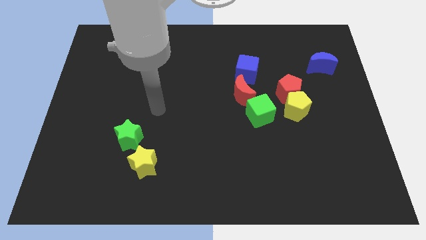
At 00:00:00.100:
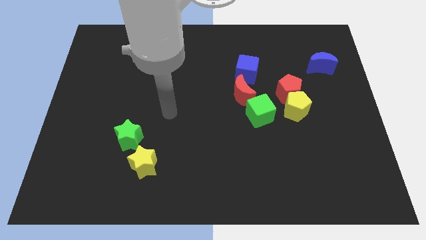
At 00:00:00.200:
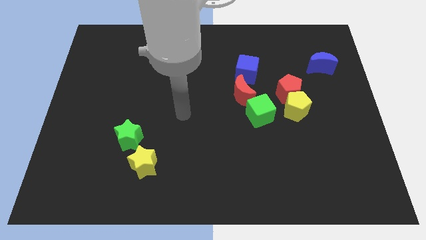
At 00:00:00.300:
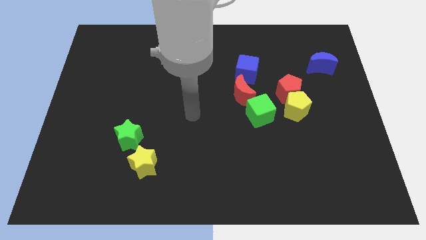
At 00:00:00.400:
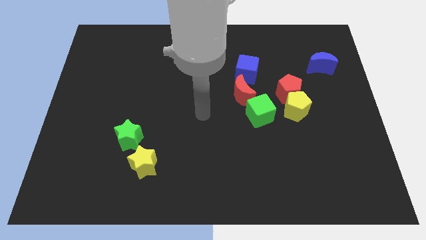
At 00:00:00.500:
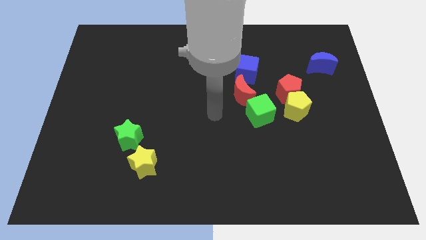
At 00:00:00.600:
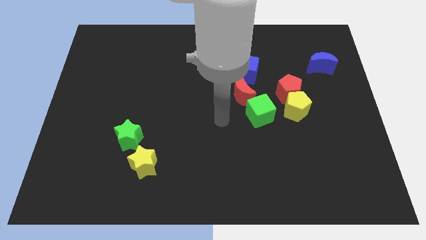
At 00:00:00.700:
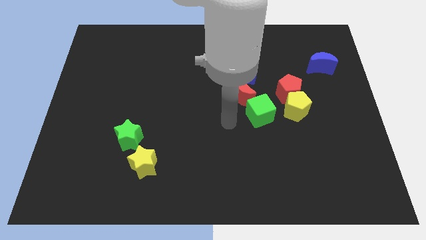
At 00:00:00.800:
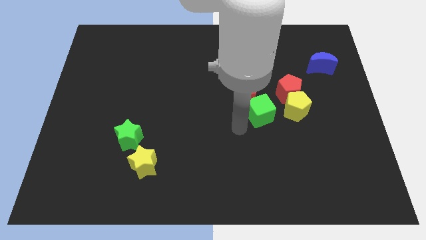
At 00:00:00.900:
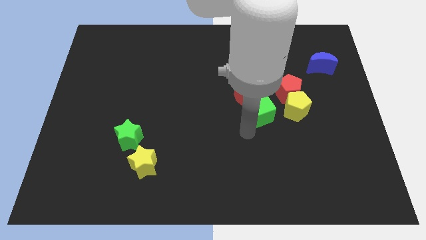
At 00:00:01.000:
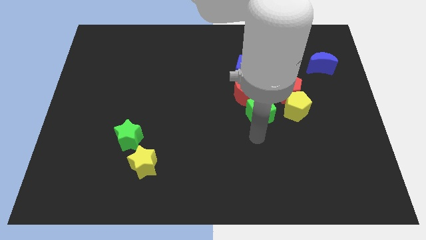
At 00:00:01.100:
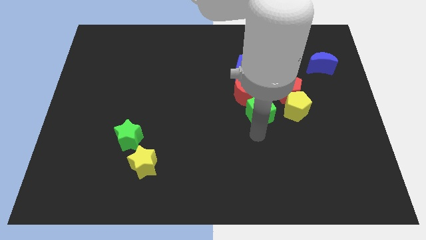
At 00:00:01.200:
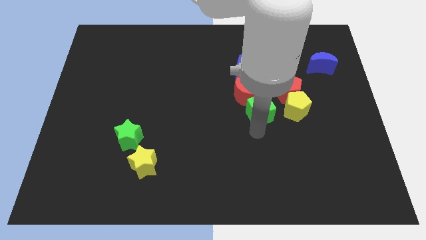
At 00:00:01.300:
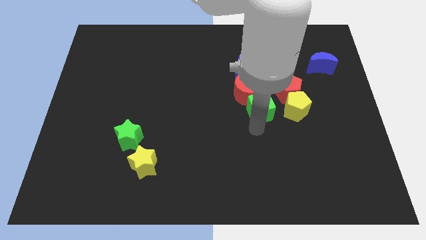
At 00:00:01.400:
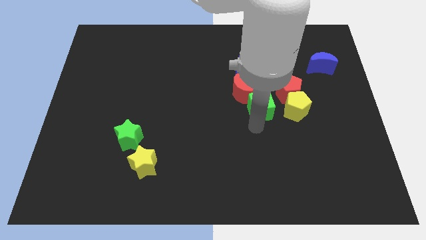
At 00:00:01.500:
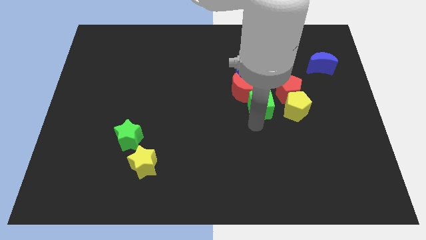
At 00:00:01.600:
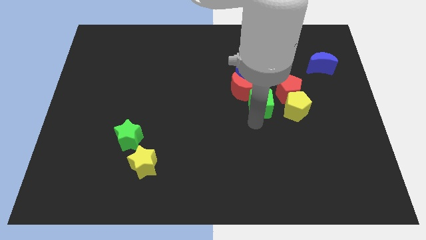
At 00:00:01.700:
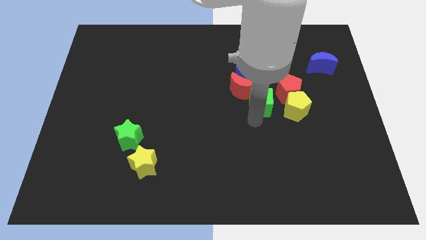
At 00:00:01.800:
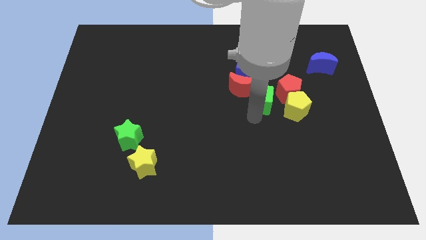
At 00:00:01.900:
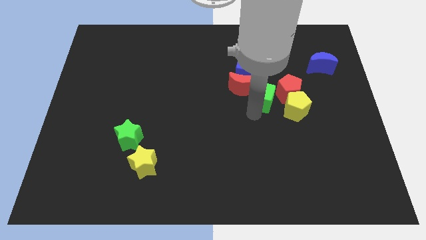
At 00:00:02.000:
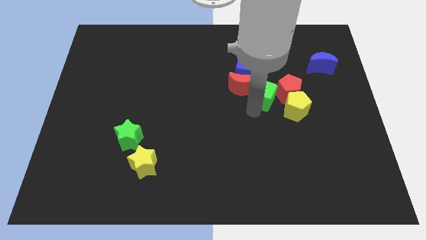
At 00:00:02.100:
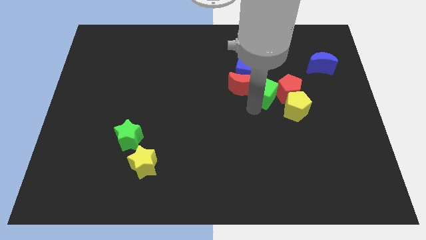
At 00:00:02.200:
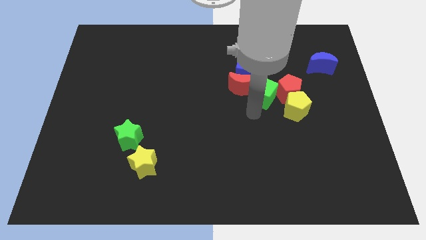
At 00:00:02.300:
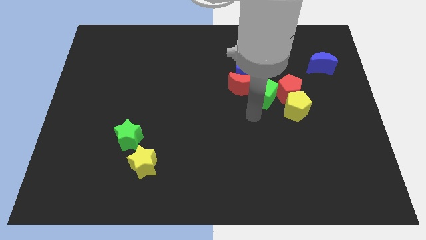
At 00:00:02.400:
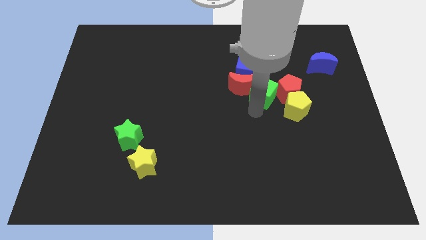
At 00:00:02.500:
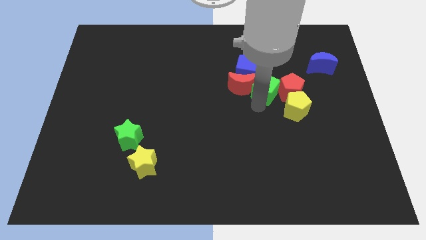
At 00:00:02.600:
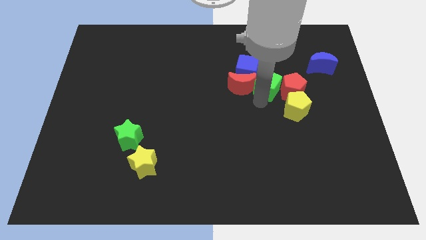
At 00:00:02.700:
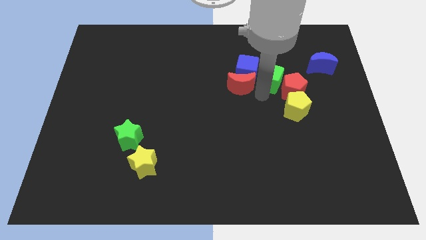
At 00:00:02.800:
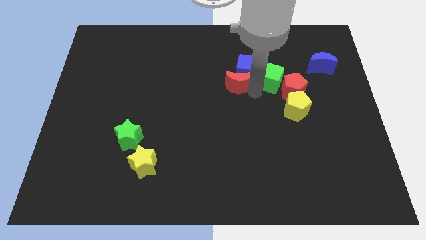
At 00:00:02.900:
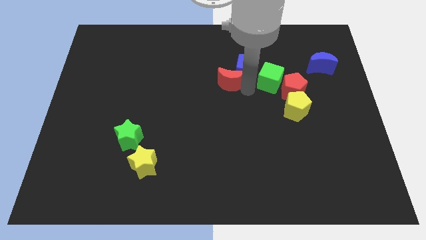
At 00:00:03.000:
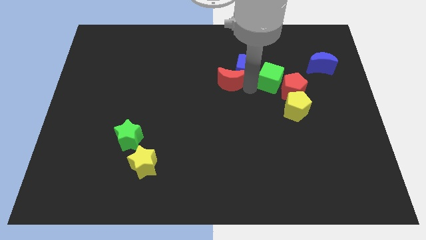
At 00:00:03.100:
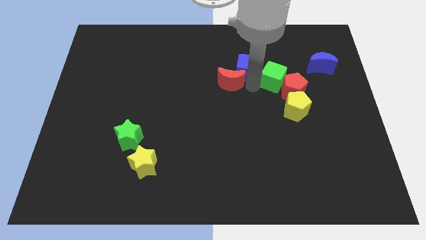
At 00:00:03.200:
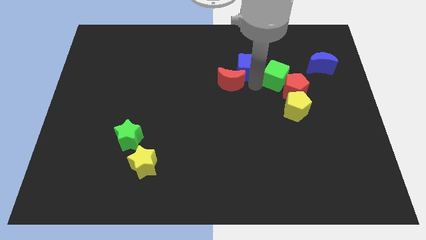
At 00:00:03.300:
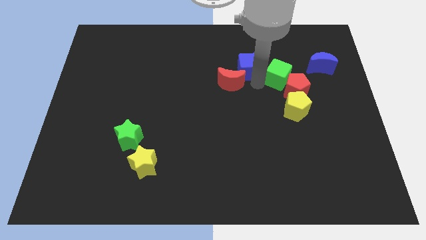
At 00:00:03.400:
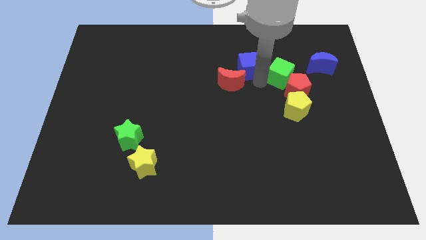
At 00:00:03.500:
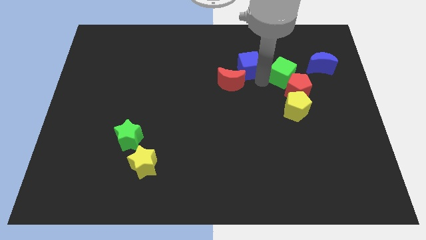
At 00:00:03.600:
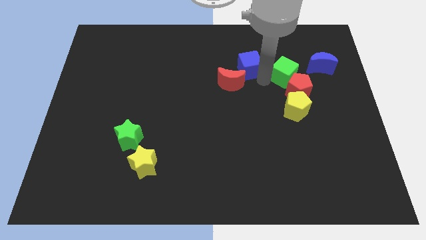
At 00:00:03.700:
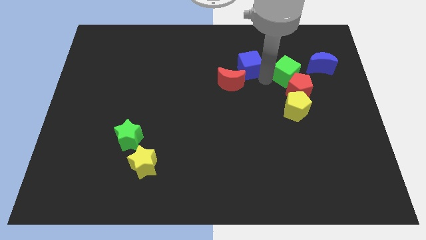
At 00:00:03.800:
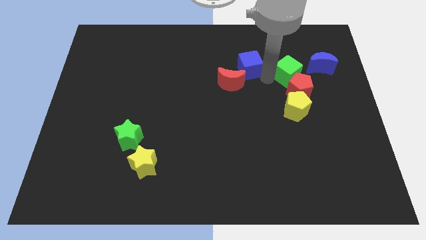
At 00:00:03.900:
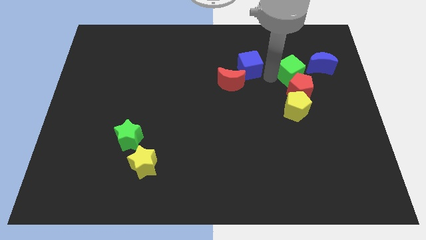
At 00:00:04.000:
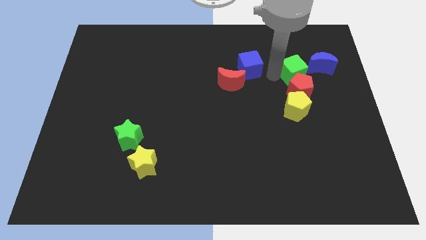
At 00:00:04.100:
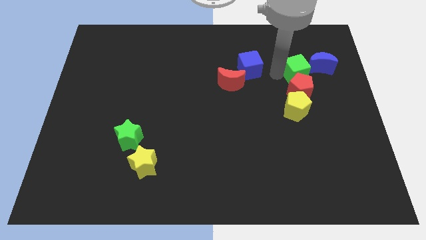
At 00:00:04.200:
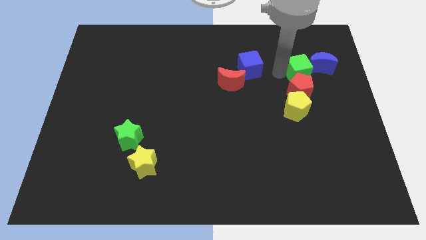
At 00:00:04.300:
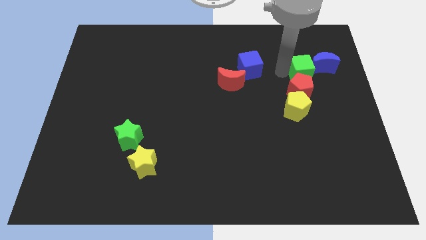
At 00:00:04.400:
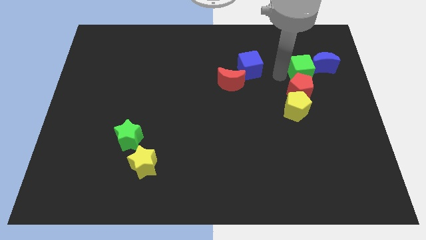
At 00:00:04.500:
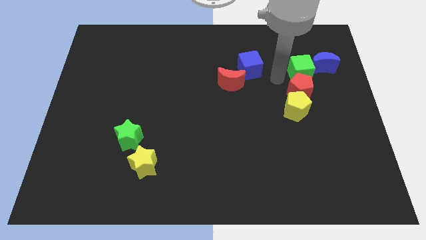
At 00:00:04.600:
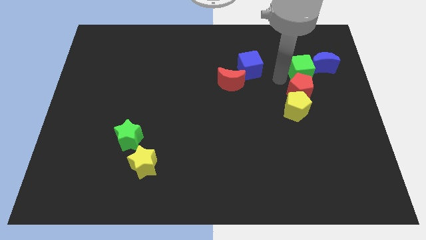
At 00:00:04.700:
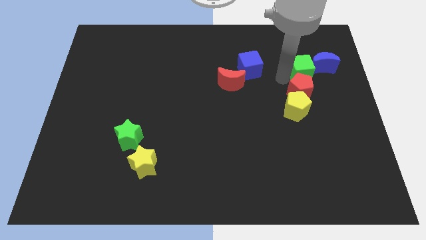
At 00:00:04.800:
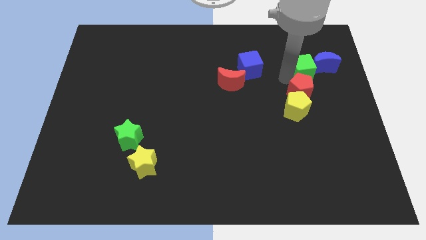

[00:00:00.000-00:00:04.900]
put the green cube close to the blue moon

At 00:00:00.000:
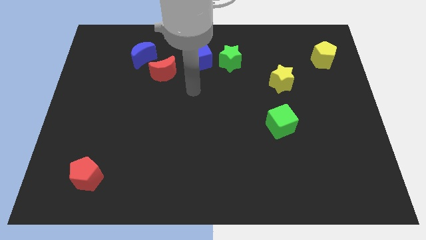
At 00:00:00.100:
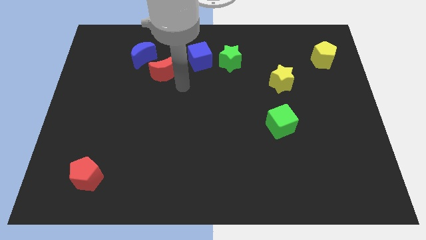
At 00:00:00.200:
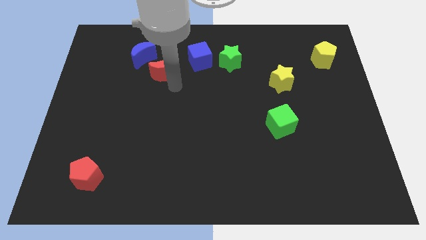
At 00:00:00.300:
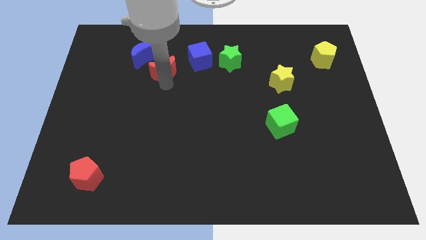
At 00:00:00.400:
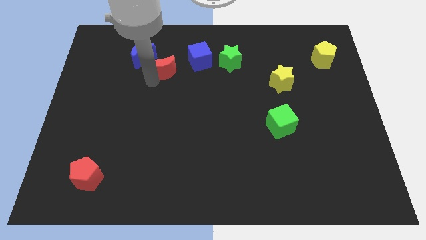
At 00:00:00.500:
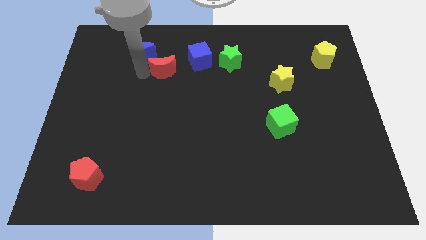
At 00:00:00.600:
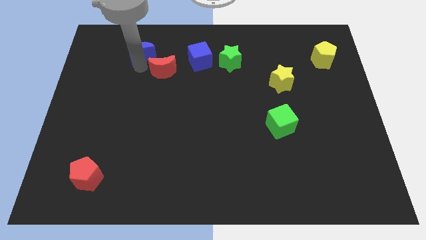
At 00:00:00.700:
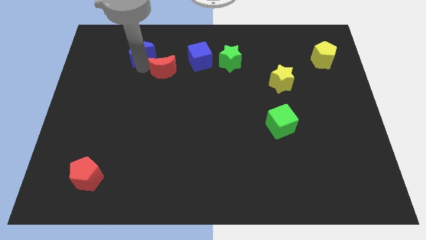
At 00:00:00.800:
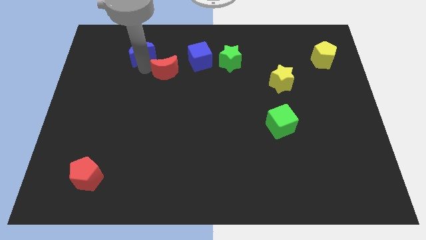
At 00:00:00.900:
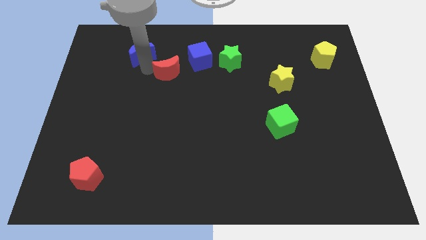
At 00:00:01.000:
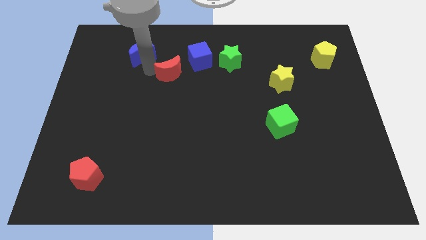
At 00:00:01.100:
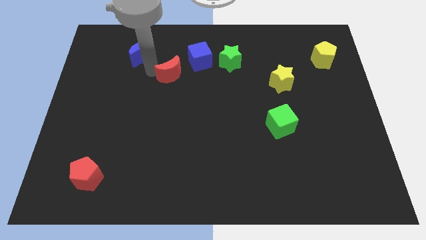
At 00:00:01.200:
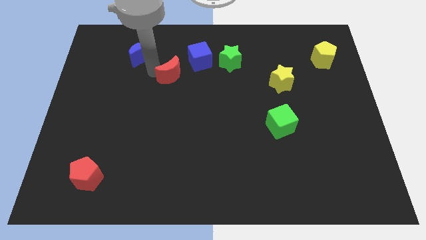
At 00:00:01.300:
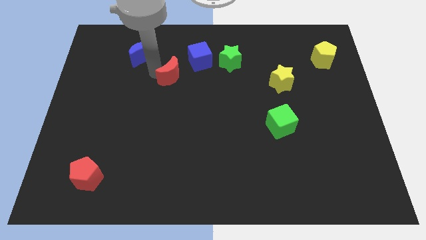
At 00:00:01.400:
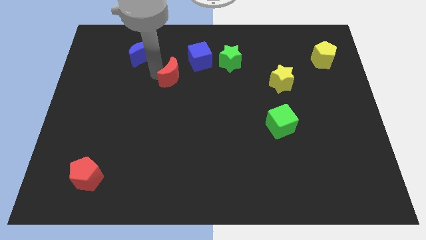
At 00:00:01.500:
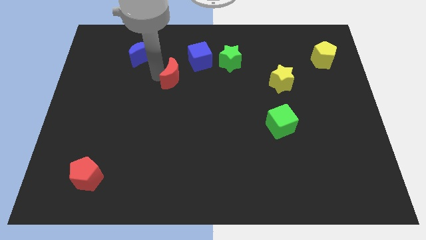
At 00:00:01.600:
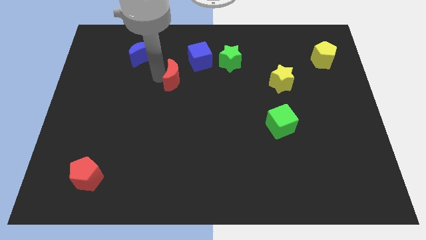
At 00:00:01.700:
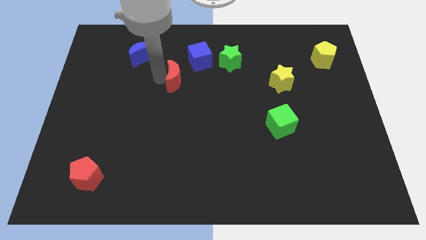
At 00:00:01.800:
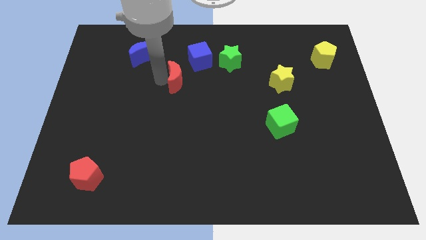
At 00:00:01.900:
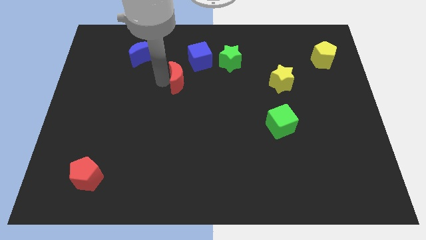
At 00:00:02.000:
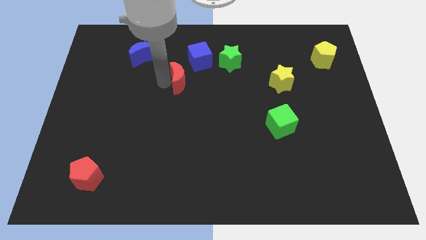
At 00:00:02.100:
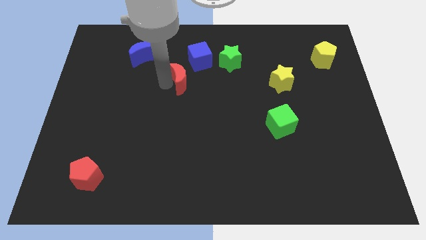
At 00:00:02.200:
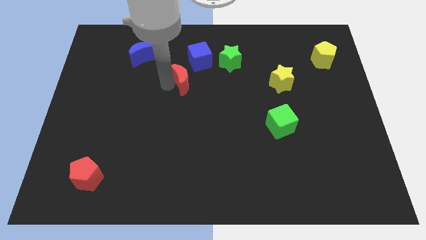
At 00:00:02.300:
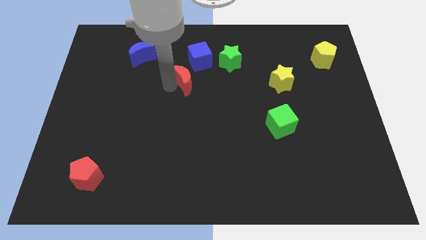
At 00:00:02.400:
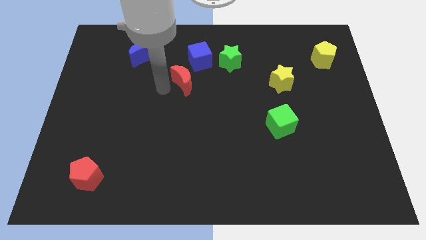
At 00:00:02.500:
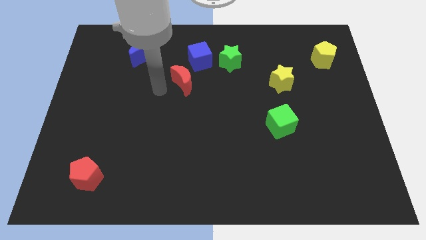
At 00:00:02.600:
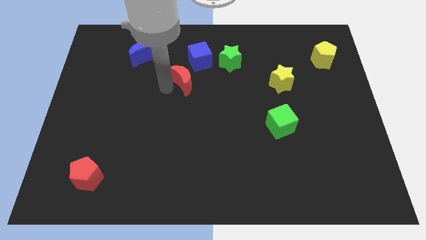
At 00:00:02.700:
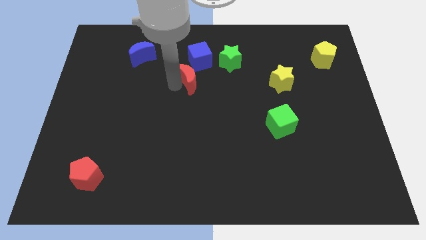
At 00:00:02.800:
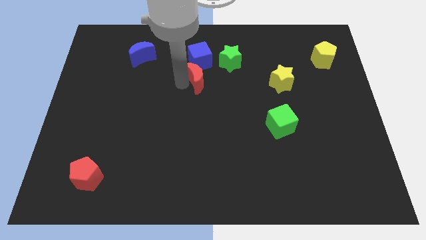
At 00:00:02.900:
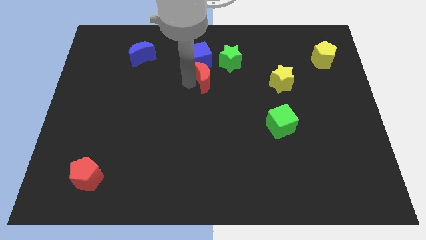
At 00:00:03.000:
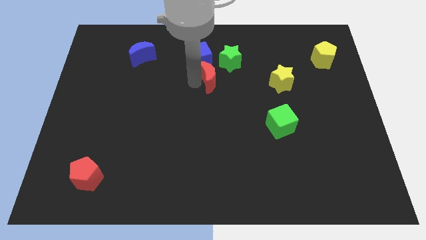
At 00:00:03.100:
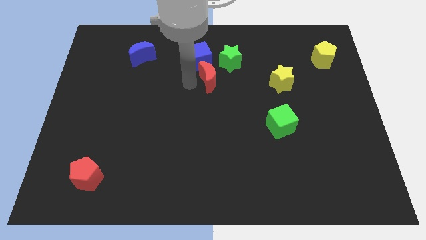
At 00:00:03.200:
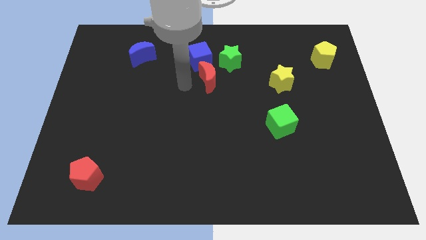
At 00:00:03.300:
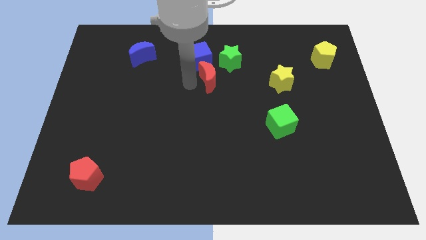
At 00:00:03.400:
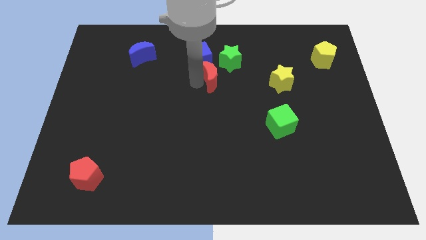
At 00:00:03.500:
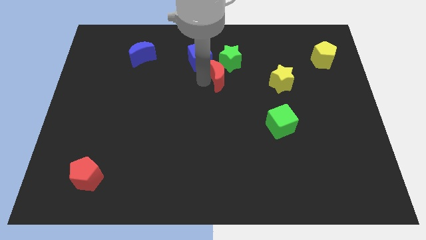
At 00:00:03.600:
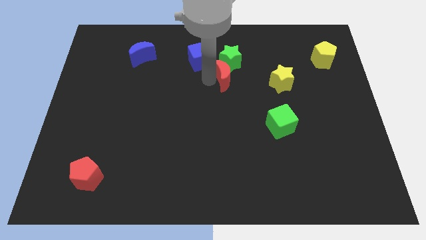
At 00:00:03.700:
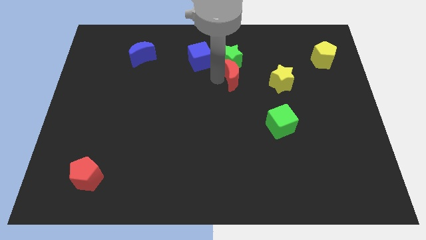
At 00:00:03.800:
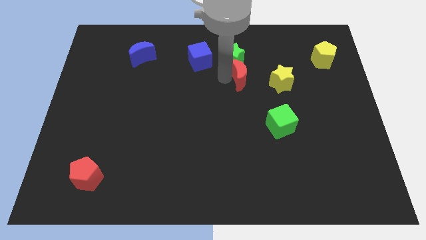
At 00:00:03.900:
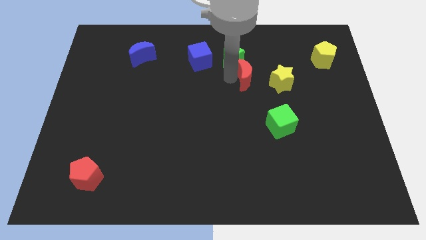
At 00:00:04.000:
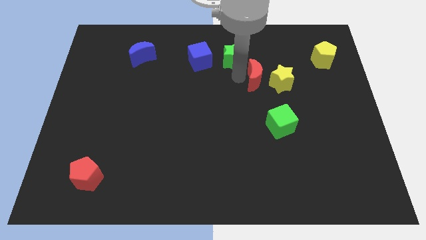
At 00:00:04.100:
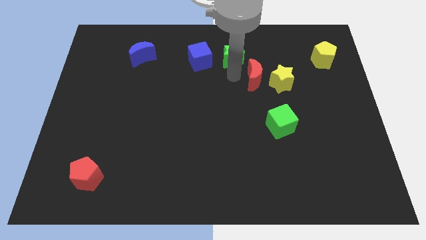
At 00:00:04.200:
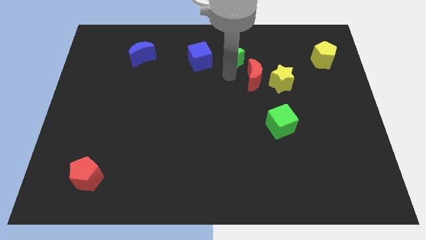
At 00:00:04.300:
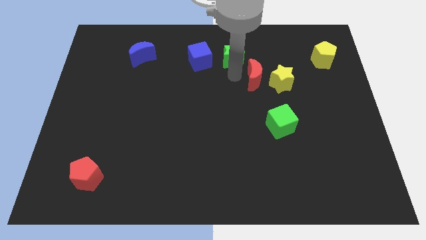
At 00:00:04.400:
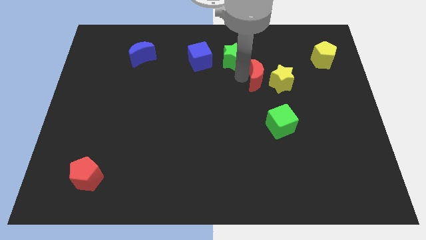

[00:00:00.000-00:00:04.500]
put the red moon towards the yellow star
